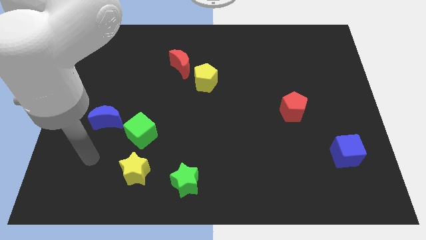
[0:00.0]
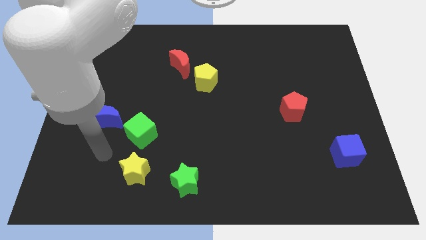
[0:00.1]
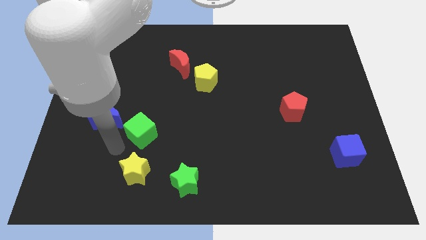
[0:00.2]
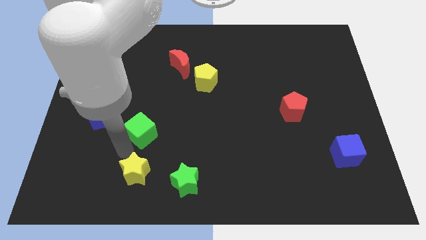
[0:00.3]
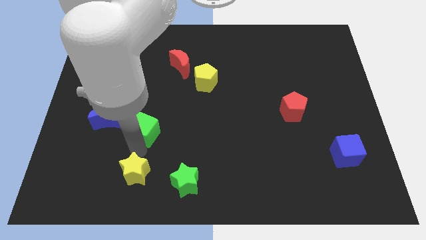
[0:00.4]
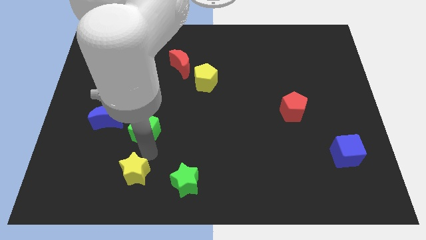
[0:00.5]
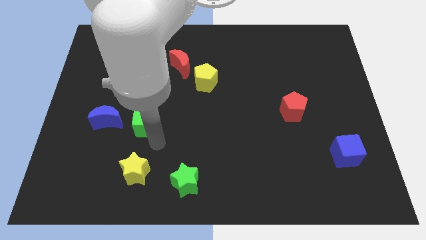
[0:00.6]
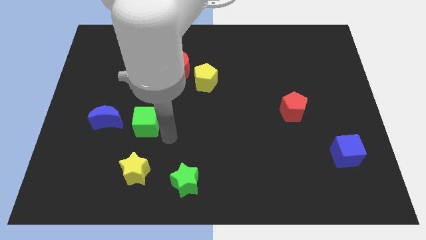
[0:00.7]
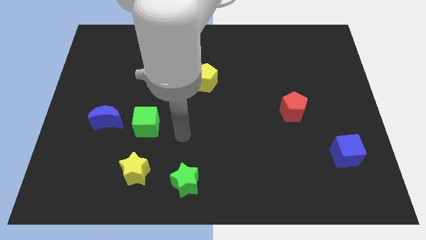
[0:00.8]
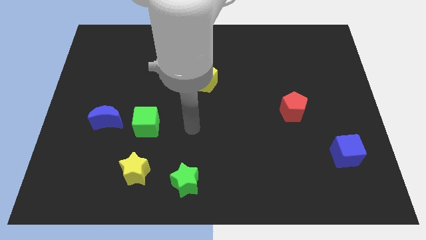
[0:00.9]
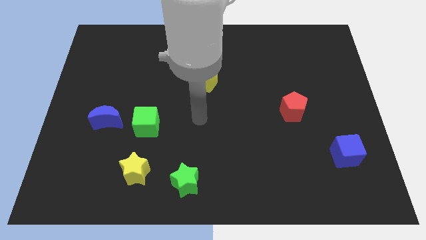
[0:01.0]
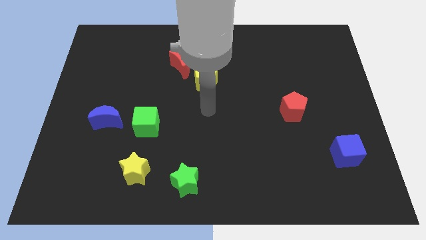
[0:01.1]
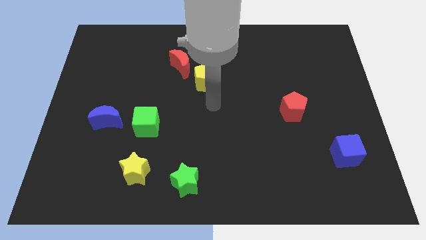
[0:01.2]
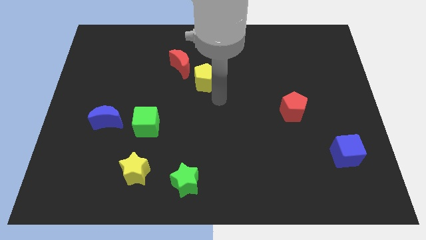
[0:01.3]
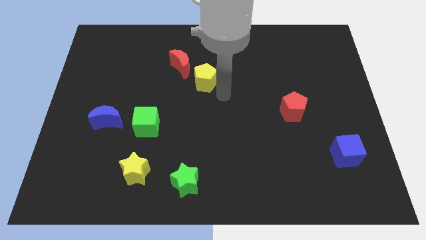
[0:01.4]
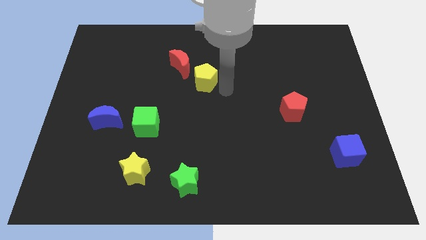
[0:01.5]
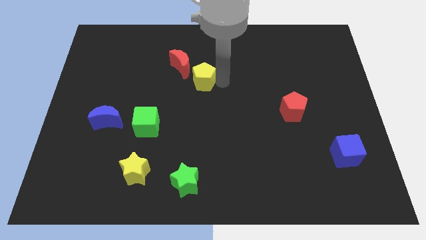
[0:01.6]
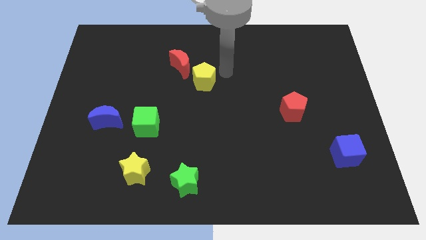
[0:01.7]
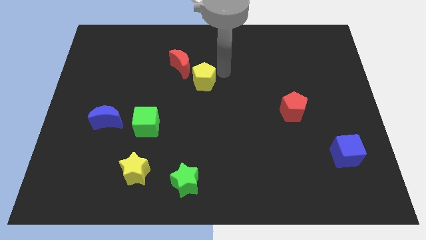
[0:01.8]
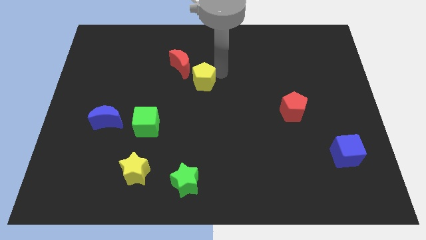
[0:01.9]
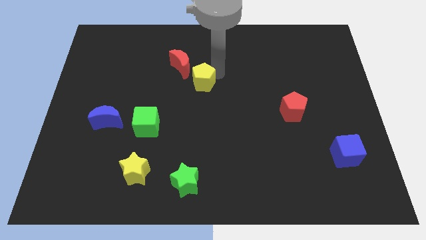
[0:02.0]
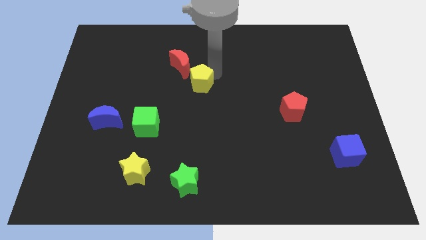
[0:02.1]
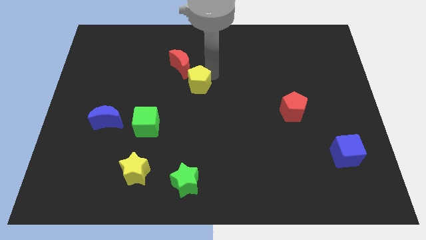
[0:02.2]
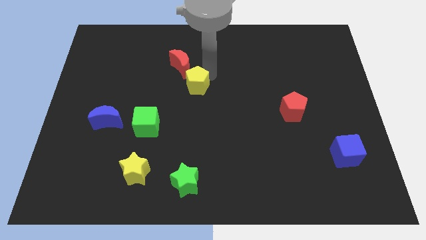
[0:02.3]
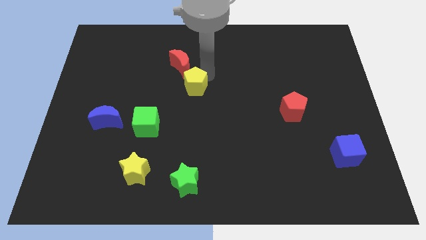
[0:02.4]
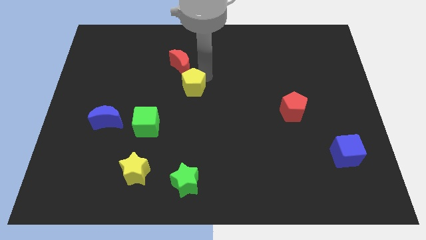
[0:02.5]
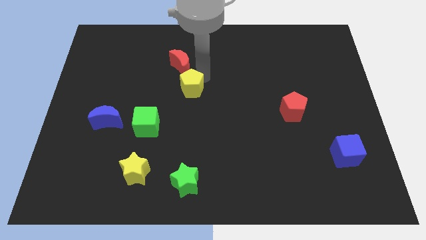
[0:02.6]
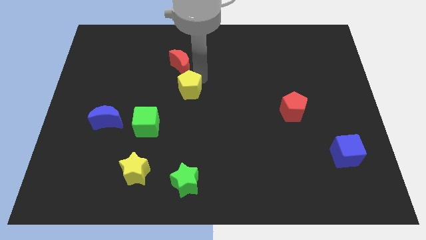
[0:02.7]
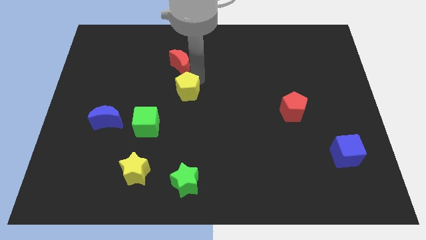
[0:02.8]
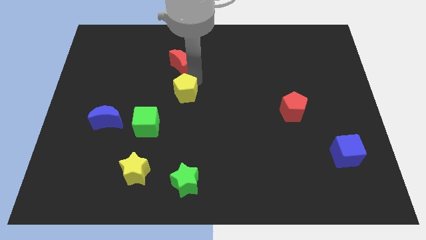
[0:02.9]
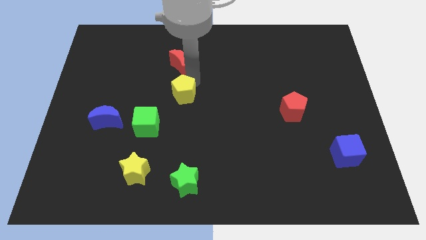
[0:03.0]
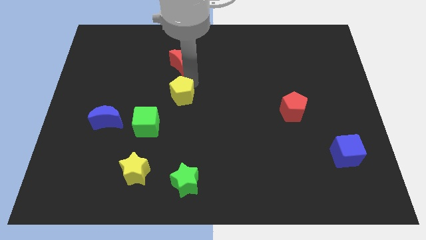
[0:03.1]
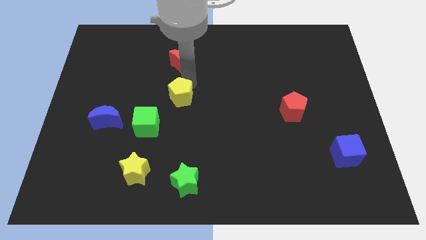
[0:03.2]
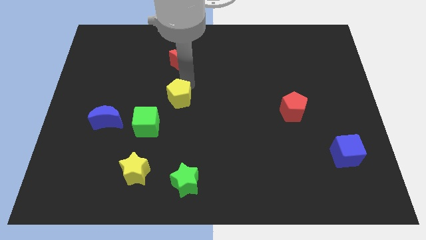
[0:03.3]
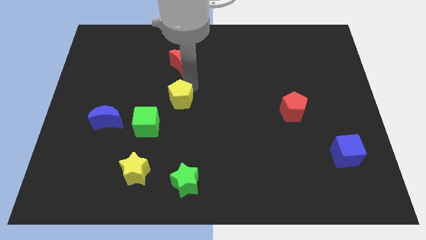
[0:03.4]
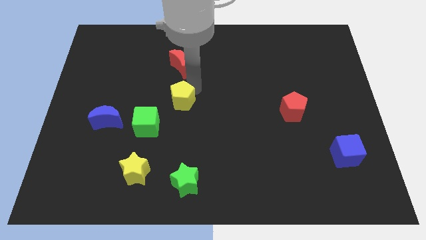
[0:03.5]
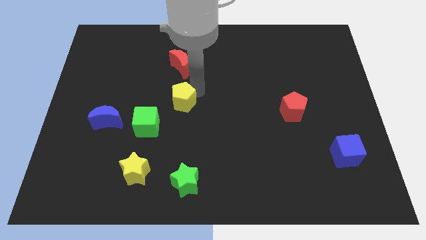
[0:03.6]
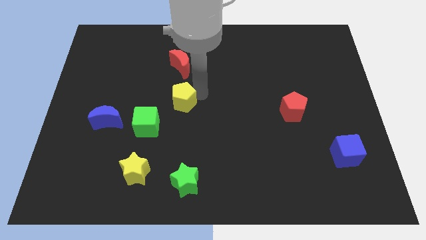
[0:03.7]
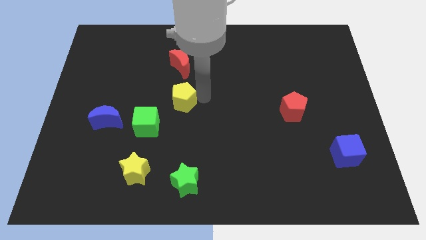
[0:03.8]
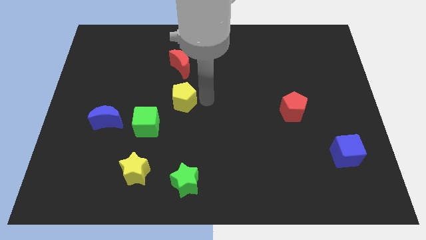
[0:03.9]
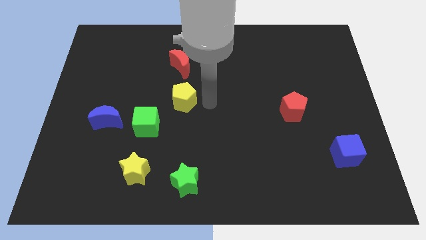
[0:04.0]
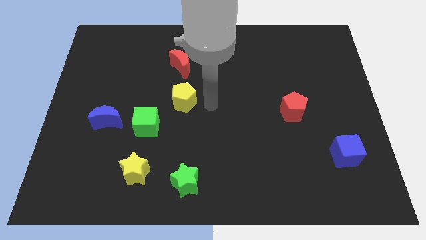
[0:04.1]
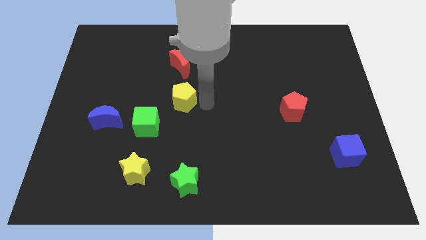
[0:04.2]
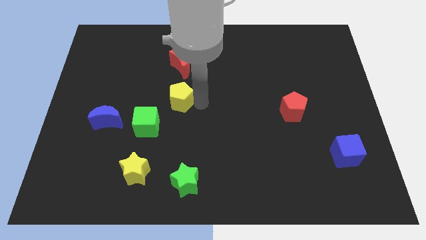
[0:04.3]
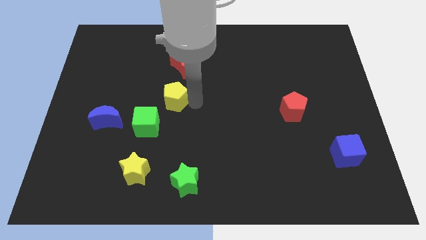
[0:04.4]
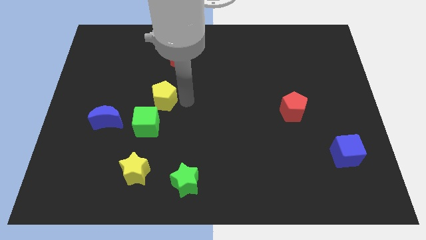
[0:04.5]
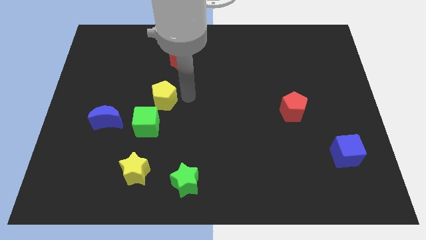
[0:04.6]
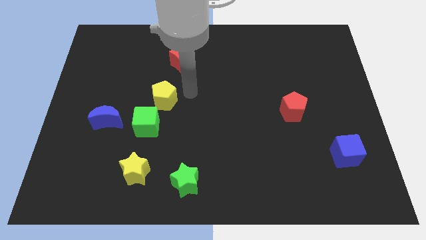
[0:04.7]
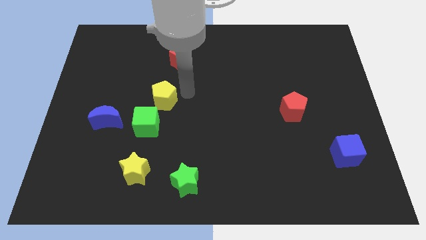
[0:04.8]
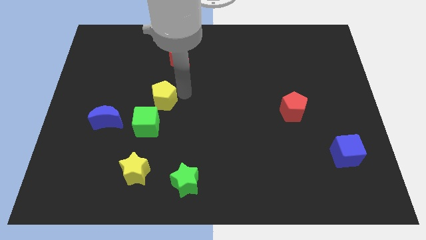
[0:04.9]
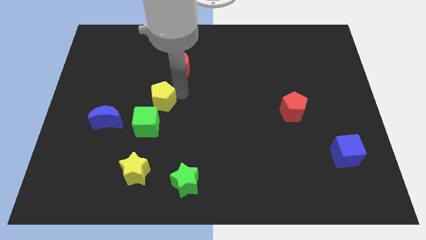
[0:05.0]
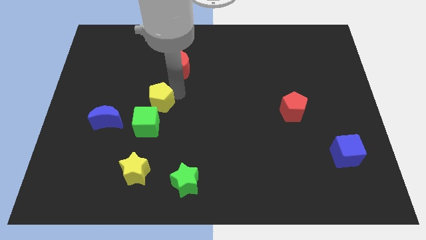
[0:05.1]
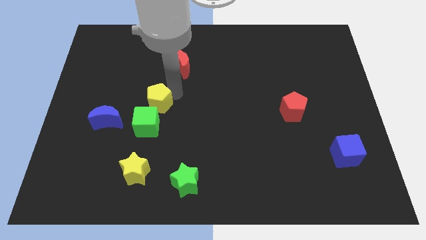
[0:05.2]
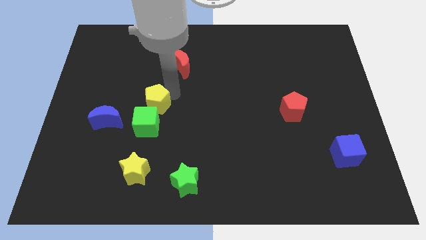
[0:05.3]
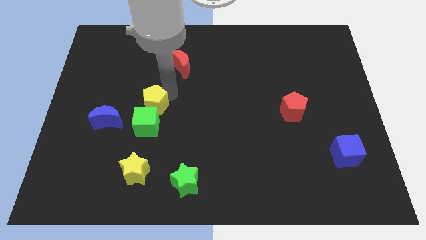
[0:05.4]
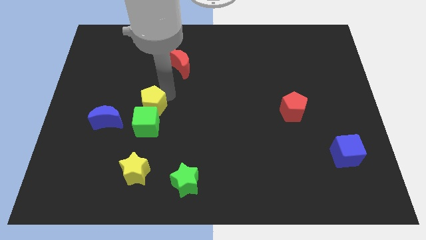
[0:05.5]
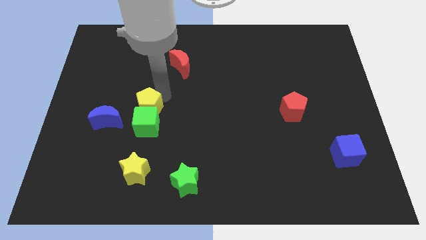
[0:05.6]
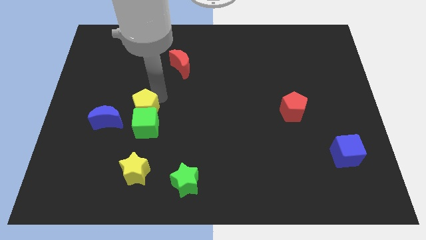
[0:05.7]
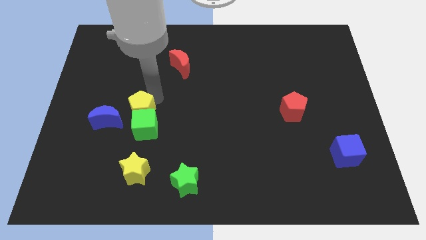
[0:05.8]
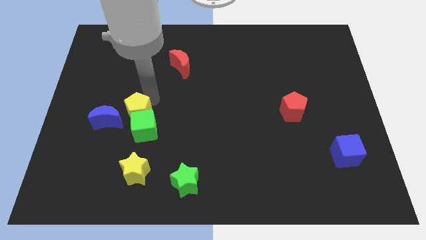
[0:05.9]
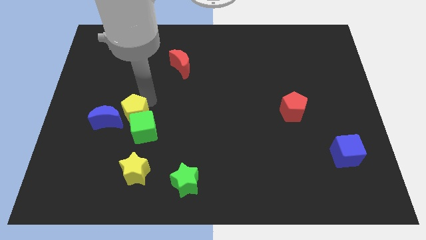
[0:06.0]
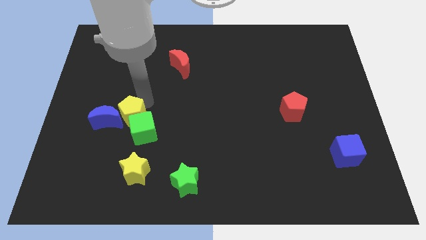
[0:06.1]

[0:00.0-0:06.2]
push the yellow pentagon to the blue moon

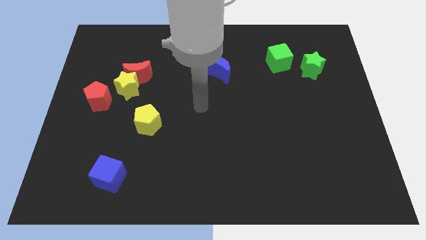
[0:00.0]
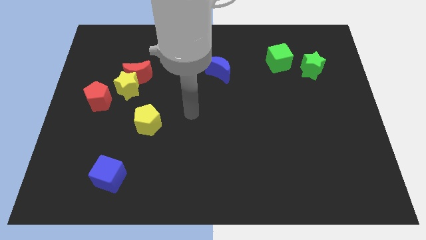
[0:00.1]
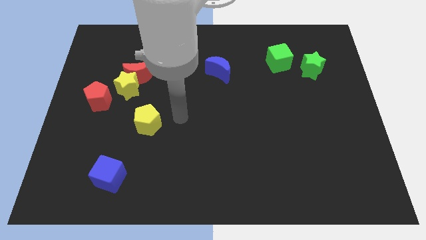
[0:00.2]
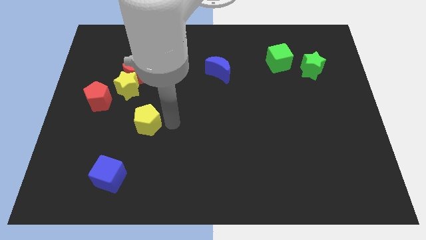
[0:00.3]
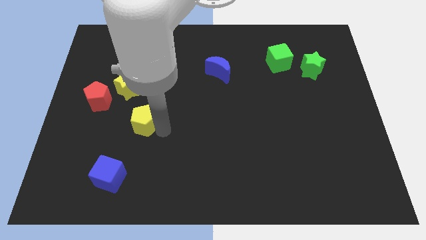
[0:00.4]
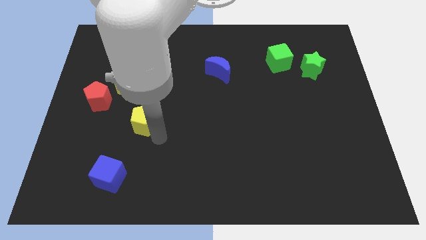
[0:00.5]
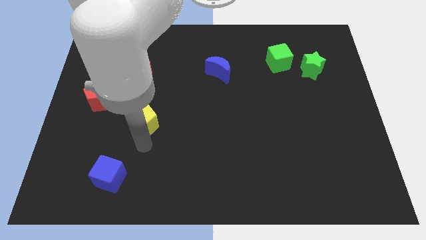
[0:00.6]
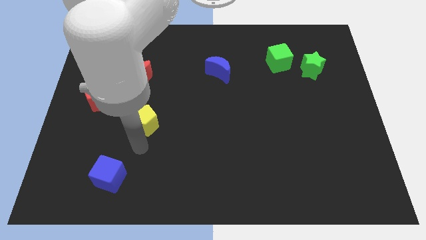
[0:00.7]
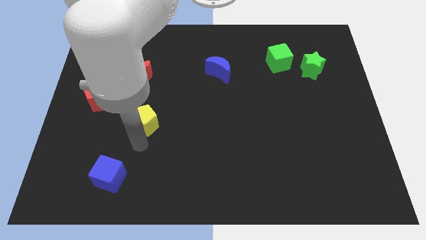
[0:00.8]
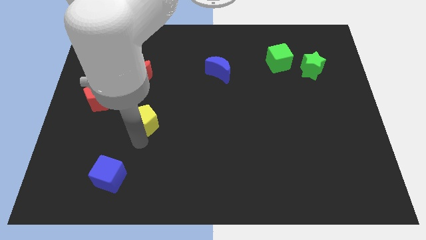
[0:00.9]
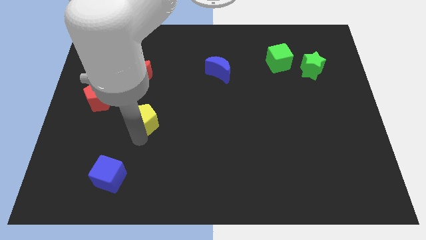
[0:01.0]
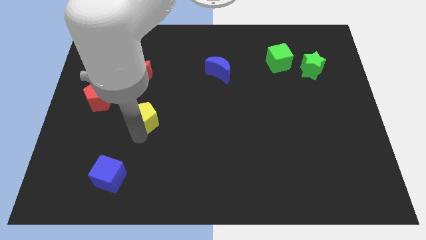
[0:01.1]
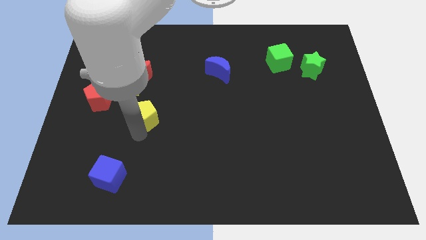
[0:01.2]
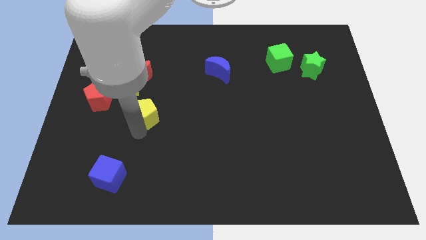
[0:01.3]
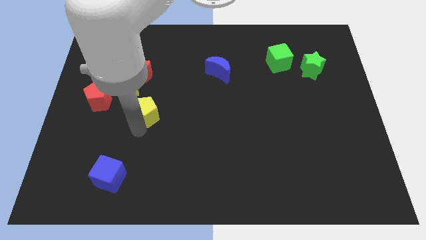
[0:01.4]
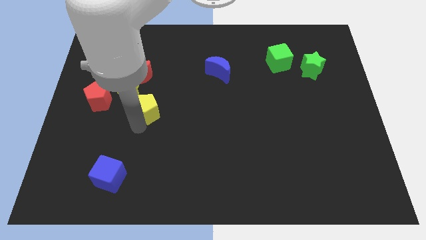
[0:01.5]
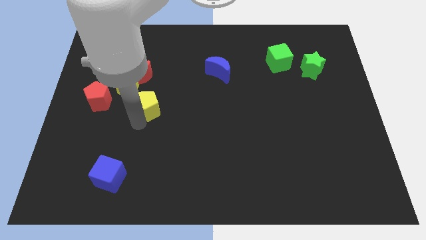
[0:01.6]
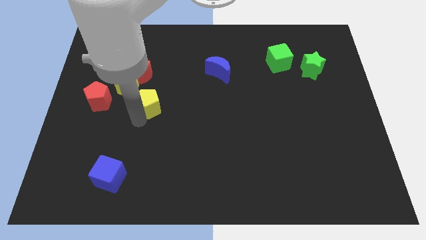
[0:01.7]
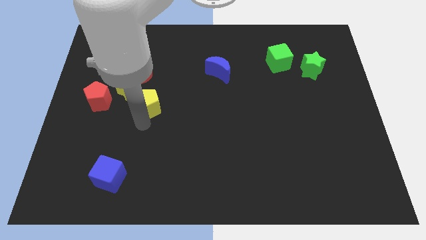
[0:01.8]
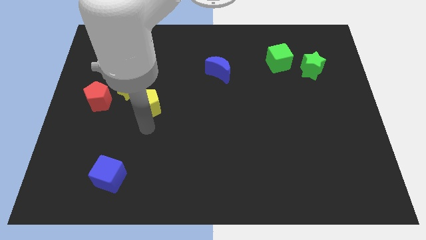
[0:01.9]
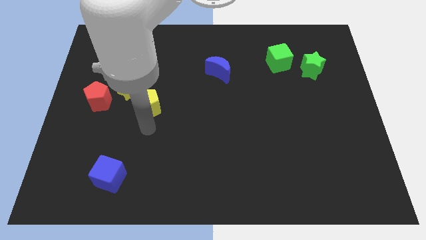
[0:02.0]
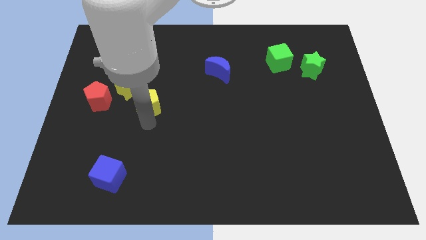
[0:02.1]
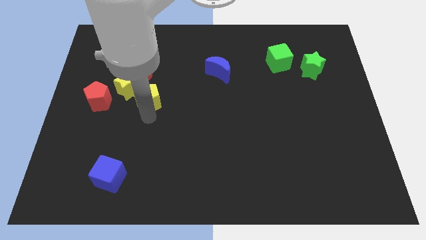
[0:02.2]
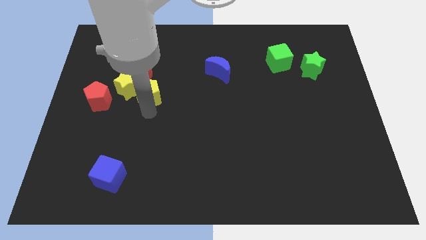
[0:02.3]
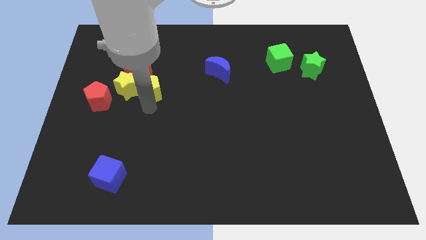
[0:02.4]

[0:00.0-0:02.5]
slide the yellow pentagon next to the red moon
